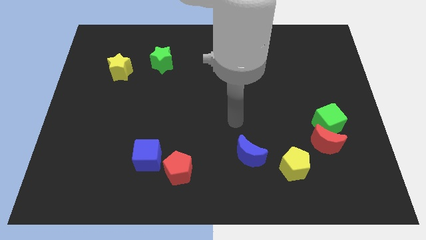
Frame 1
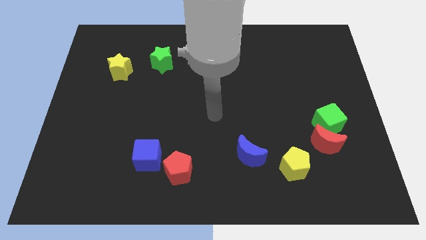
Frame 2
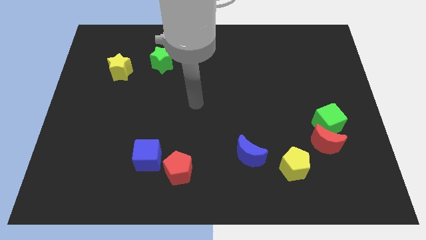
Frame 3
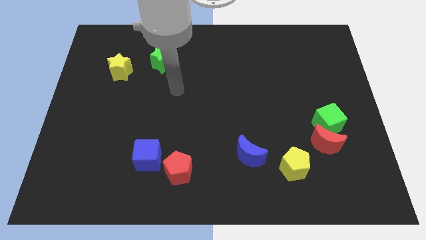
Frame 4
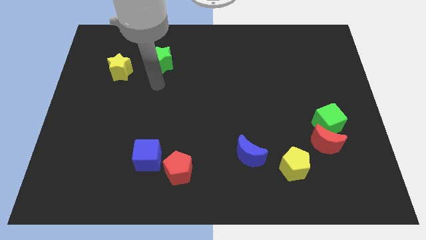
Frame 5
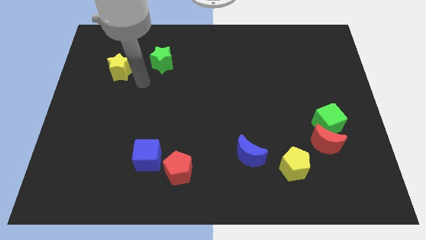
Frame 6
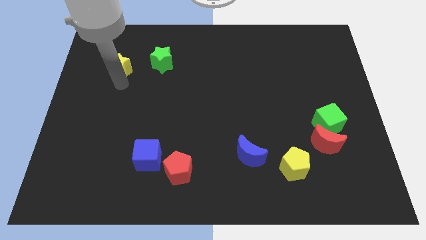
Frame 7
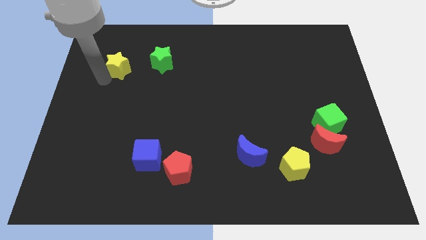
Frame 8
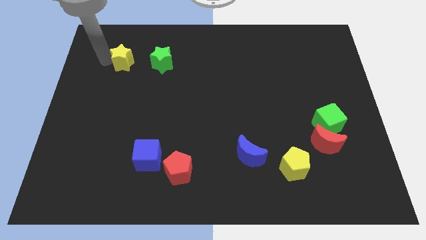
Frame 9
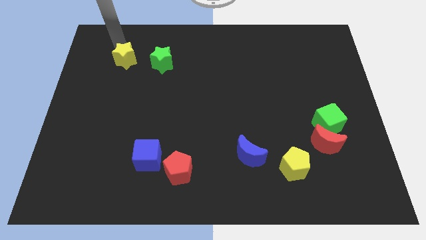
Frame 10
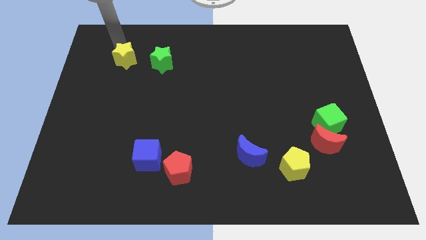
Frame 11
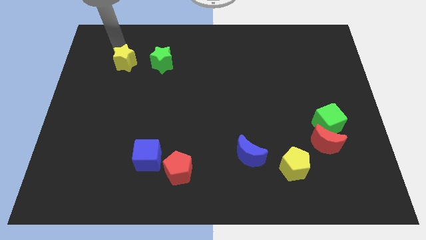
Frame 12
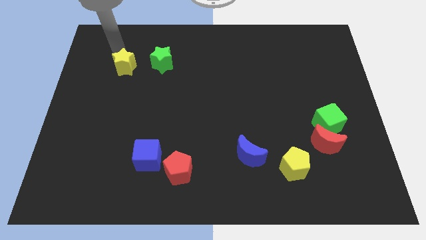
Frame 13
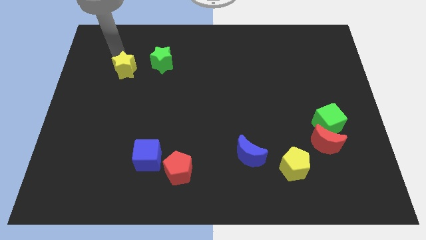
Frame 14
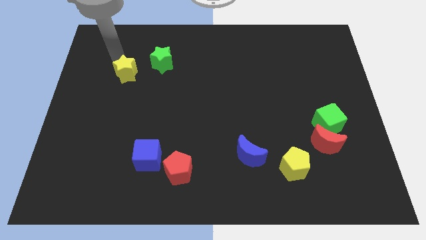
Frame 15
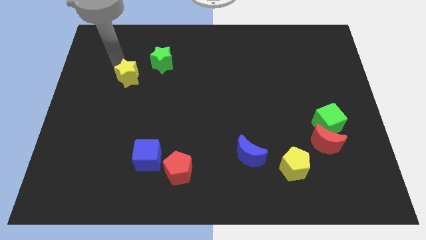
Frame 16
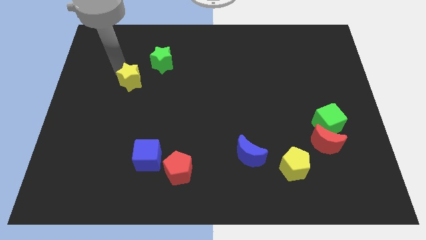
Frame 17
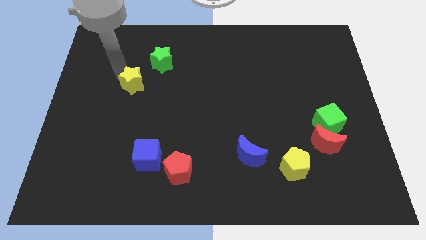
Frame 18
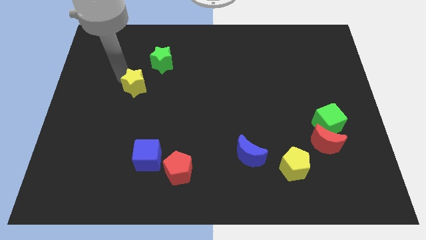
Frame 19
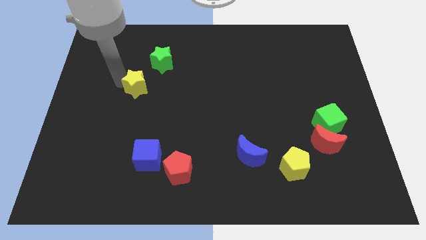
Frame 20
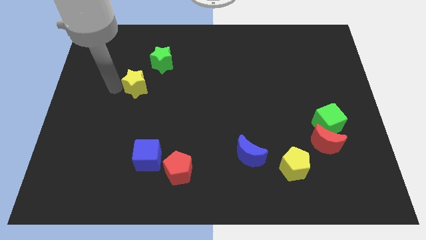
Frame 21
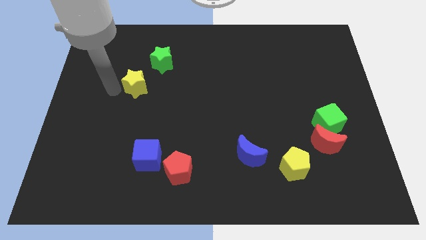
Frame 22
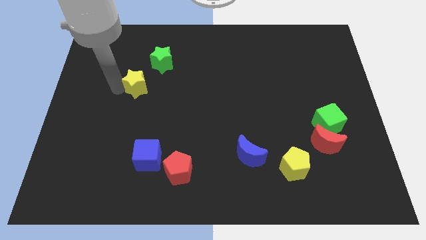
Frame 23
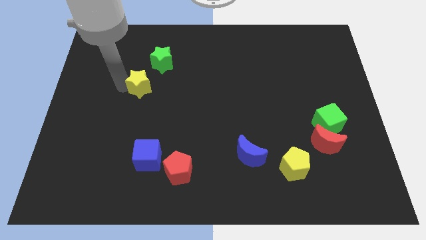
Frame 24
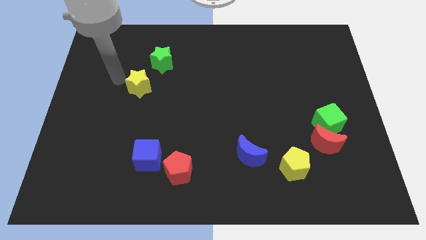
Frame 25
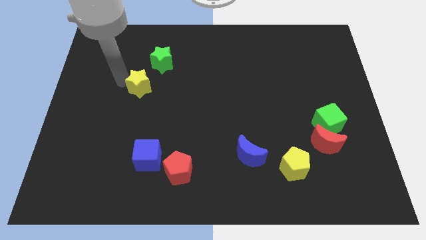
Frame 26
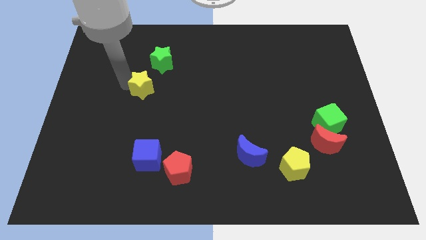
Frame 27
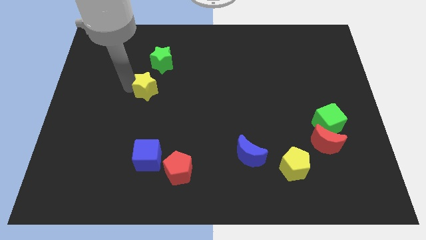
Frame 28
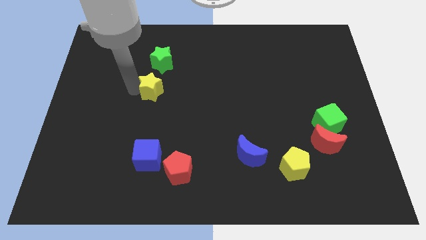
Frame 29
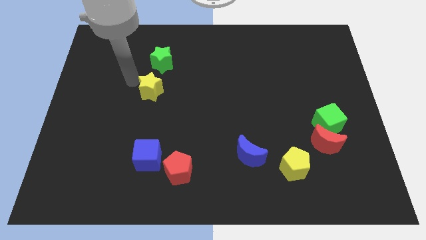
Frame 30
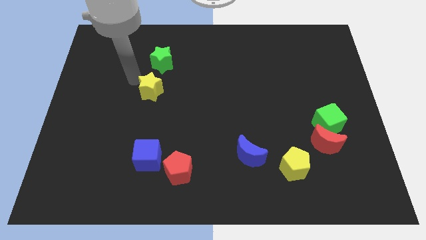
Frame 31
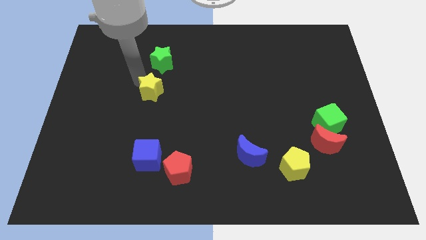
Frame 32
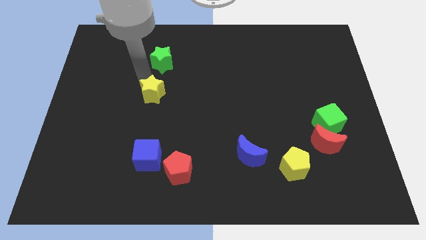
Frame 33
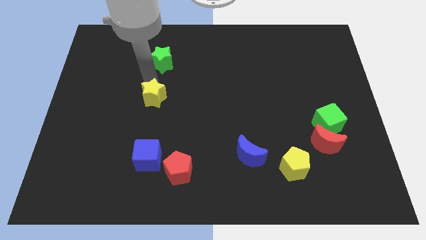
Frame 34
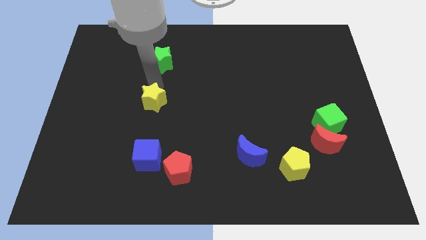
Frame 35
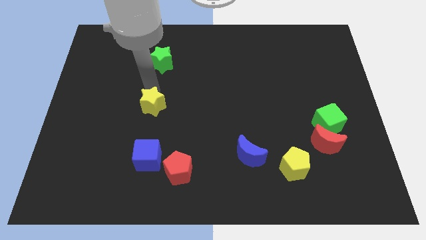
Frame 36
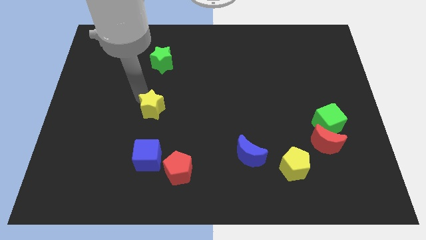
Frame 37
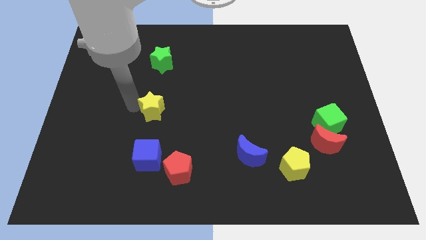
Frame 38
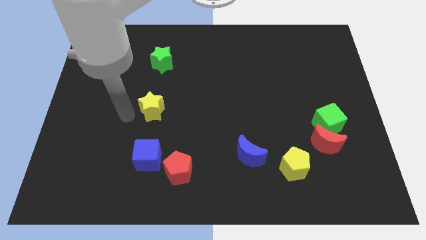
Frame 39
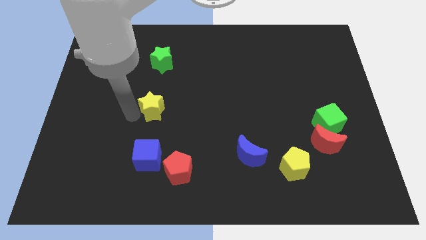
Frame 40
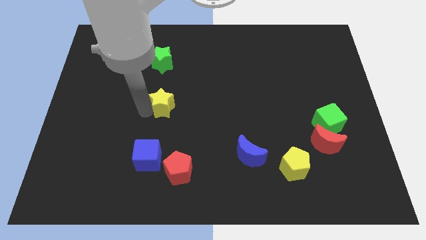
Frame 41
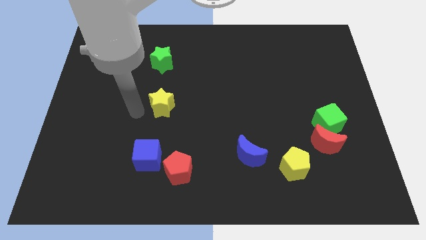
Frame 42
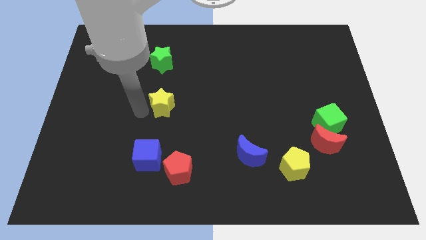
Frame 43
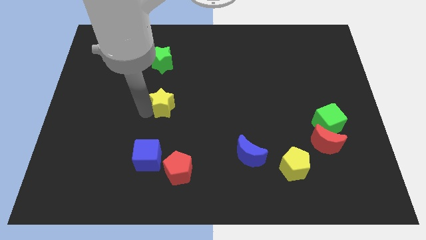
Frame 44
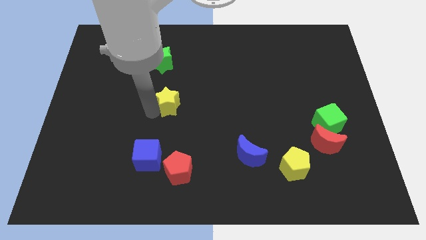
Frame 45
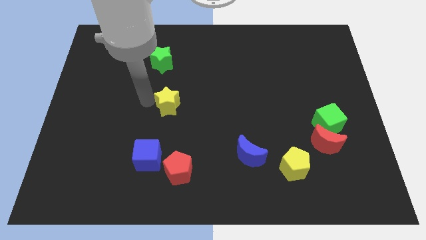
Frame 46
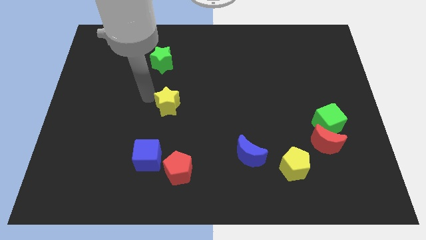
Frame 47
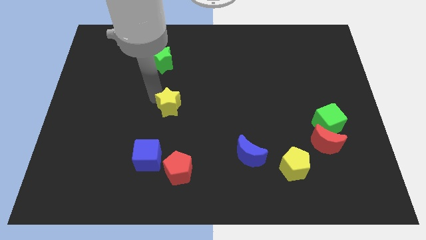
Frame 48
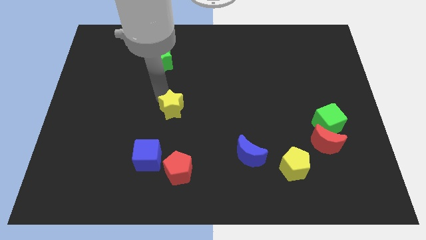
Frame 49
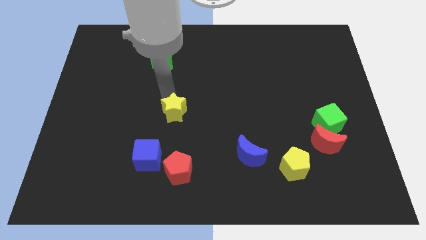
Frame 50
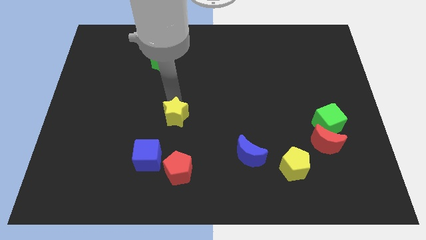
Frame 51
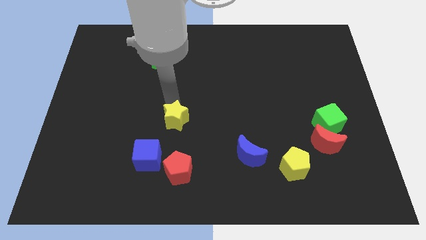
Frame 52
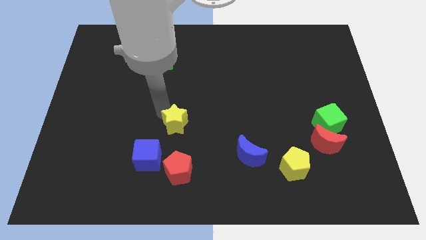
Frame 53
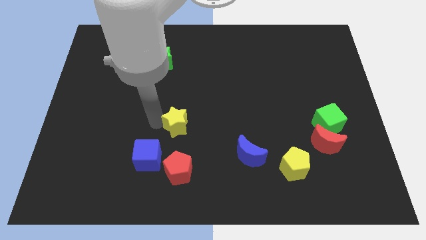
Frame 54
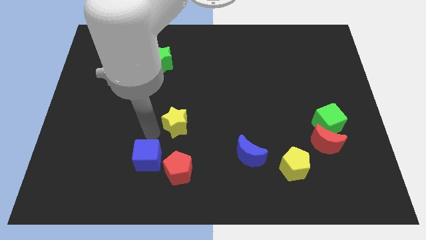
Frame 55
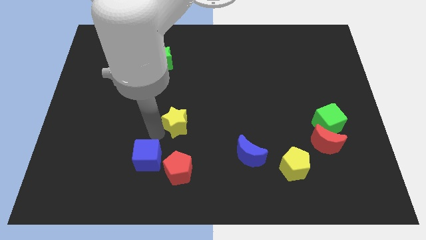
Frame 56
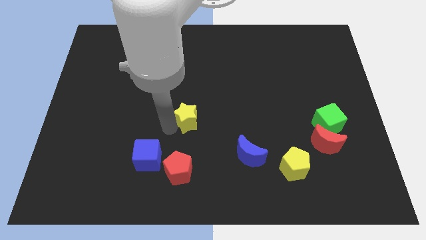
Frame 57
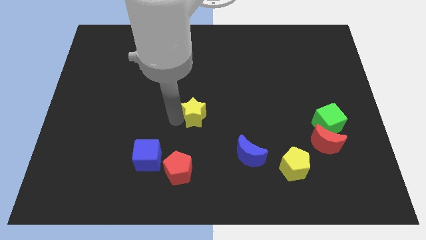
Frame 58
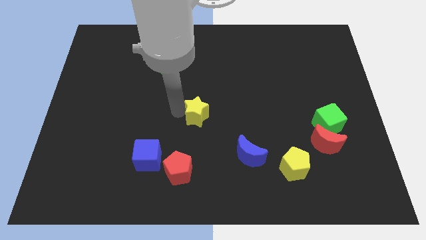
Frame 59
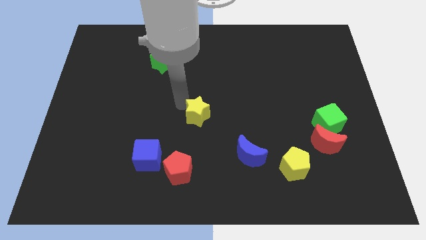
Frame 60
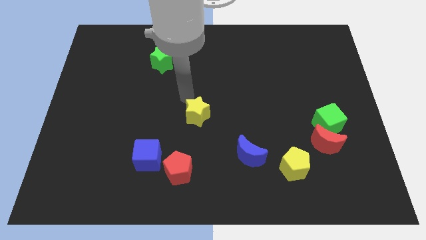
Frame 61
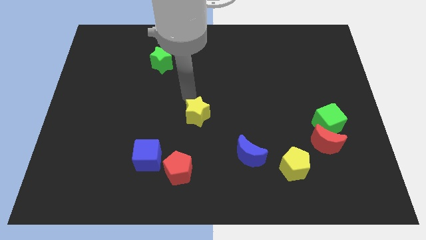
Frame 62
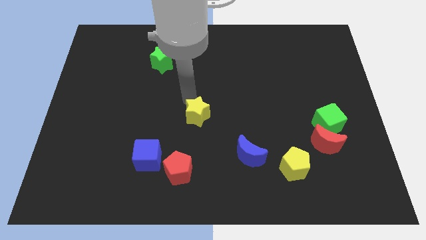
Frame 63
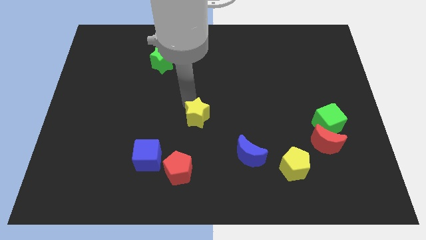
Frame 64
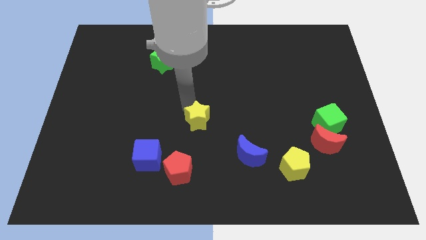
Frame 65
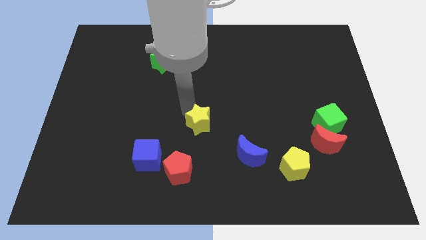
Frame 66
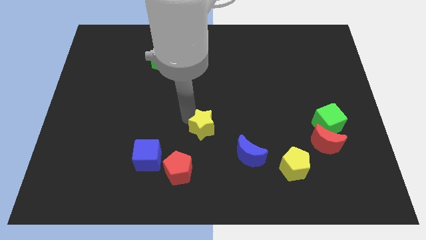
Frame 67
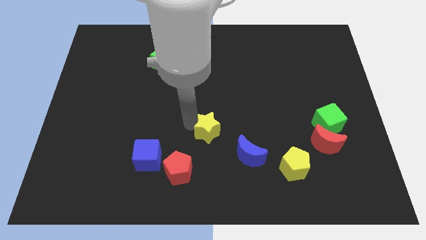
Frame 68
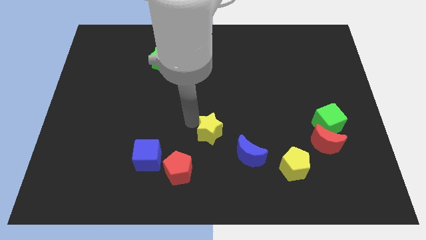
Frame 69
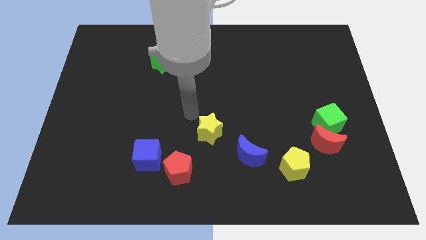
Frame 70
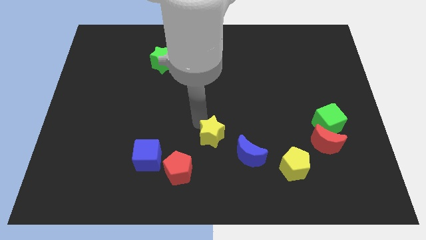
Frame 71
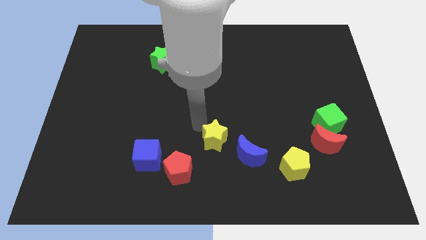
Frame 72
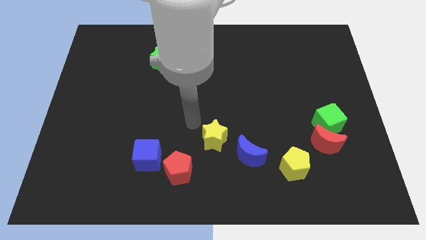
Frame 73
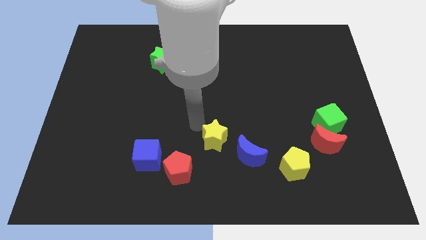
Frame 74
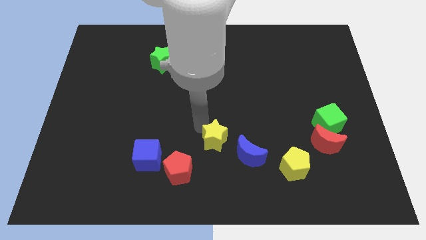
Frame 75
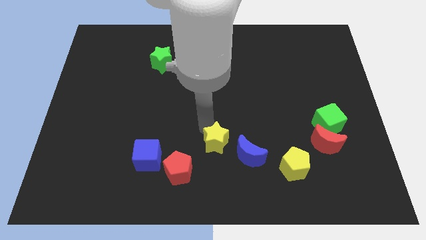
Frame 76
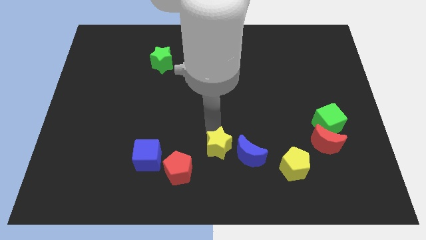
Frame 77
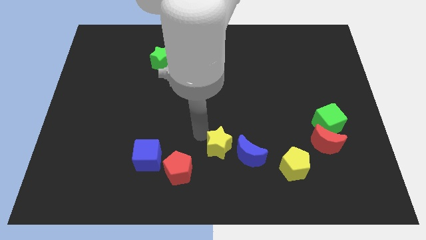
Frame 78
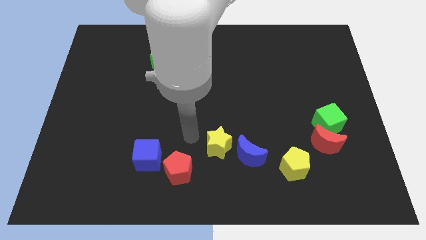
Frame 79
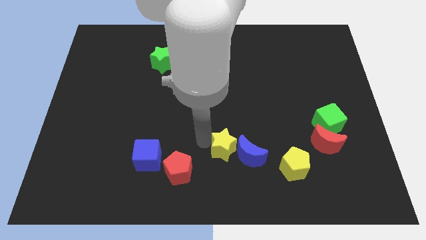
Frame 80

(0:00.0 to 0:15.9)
push the yellow star next to the blue moon
